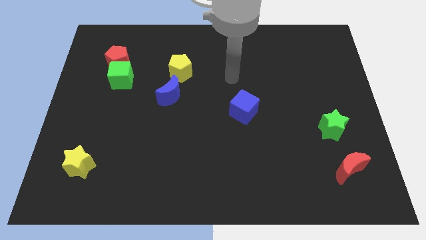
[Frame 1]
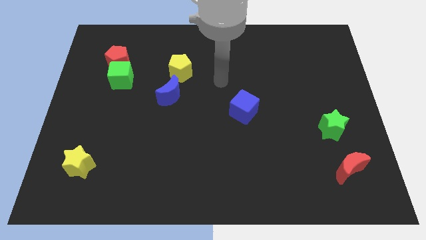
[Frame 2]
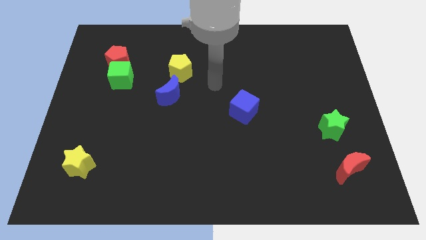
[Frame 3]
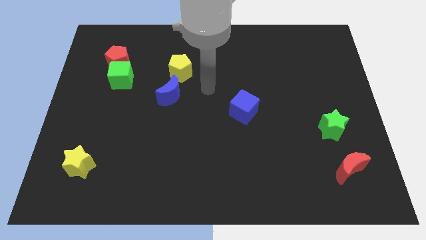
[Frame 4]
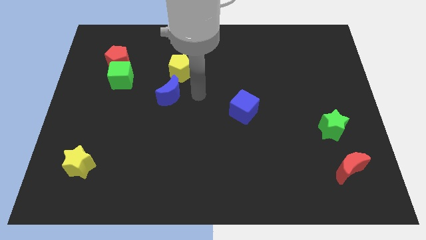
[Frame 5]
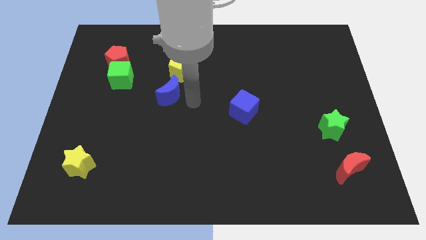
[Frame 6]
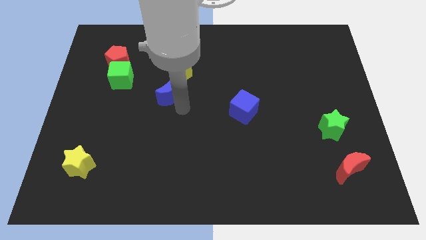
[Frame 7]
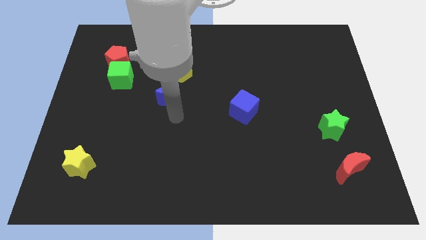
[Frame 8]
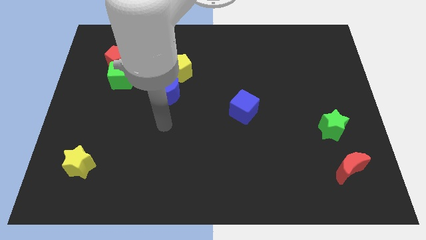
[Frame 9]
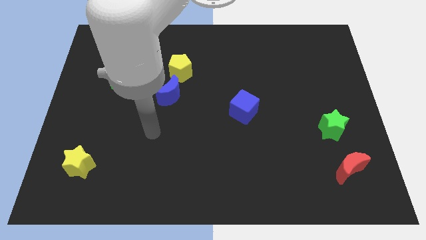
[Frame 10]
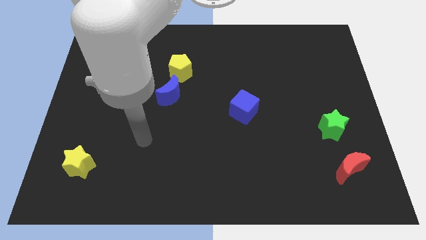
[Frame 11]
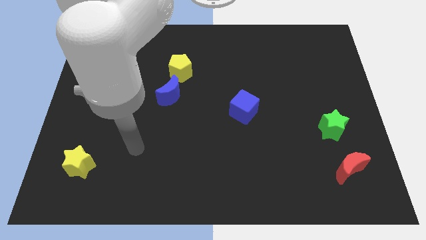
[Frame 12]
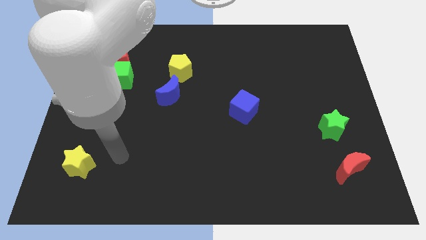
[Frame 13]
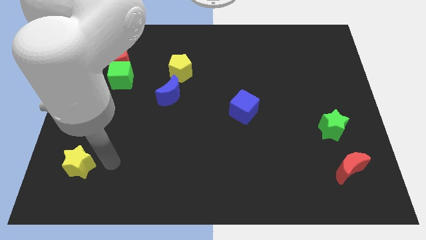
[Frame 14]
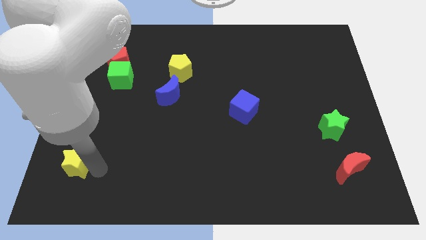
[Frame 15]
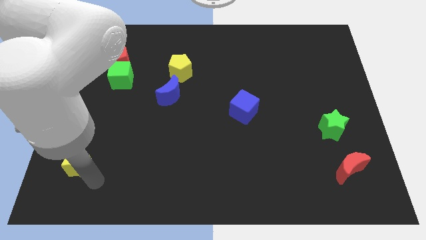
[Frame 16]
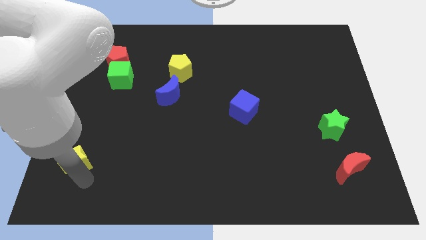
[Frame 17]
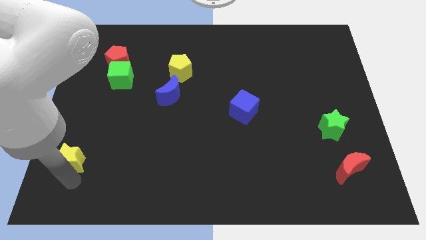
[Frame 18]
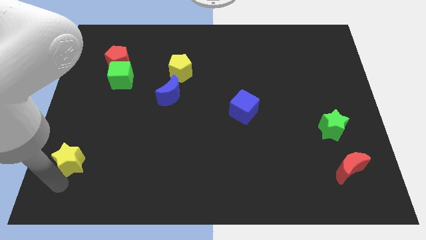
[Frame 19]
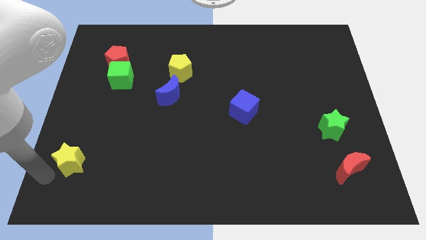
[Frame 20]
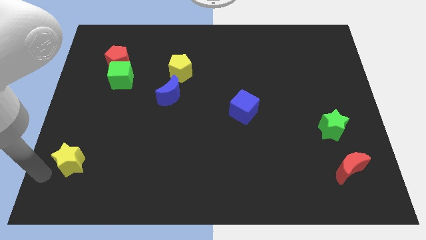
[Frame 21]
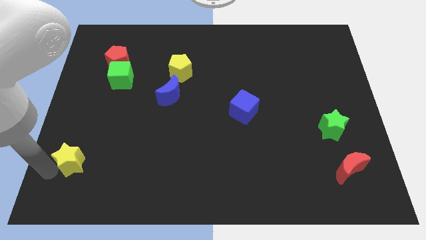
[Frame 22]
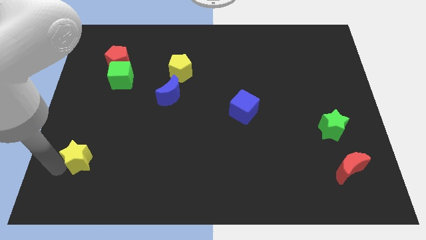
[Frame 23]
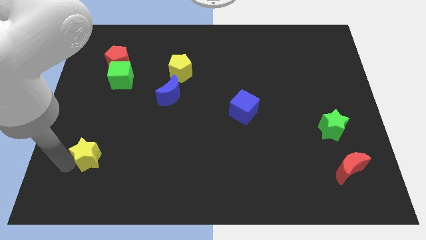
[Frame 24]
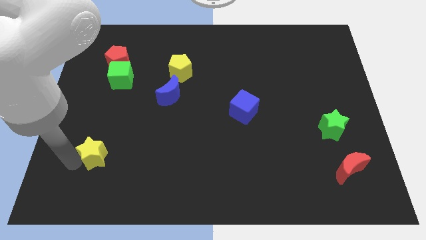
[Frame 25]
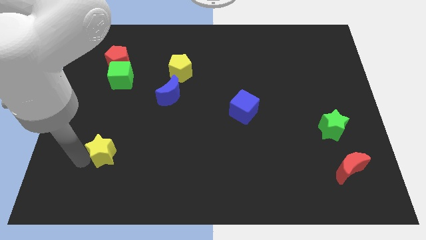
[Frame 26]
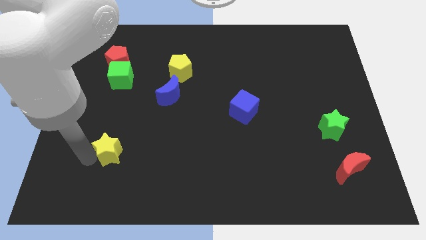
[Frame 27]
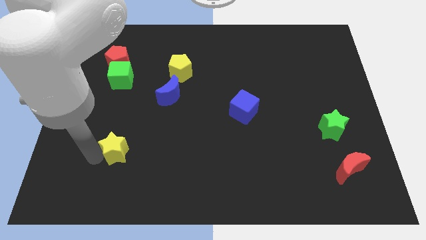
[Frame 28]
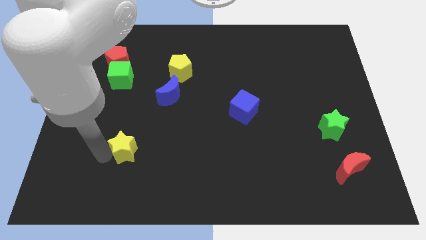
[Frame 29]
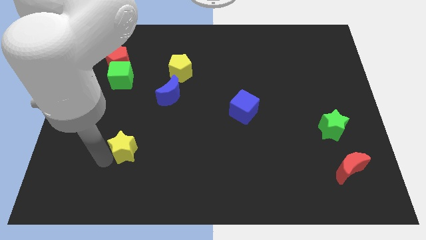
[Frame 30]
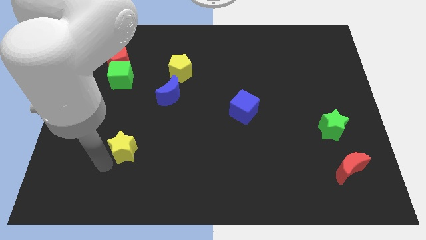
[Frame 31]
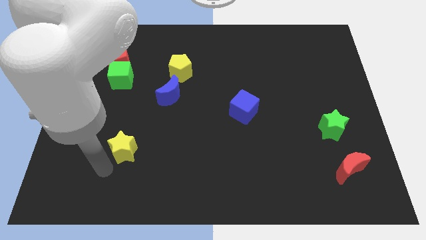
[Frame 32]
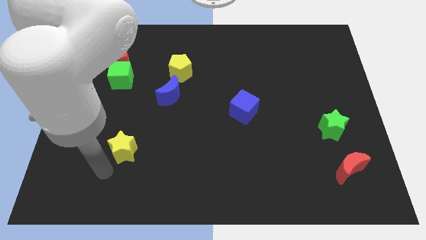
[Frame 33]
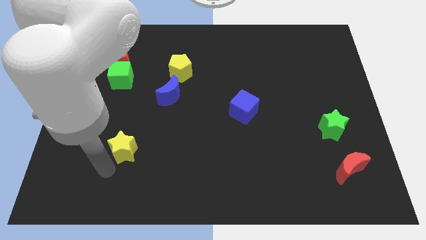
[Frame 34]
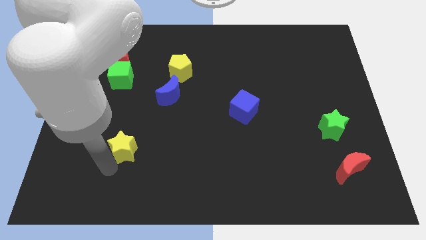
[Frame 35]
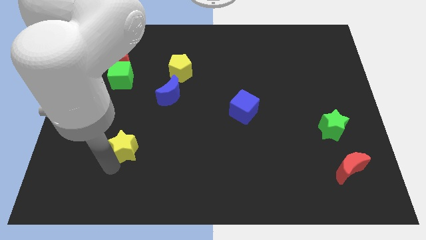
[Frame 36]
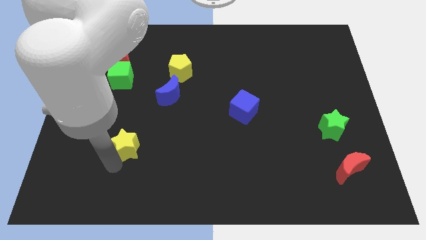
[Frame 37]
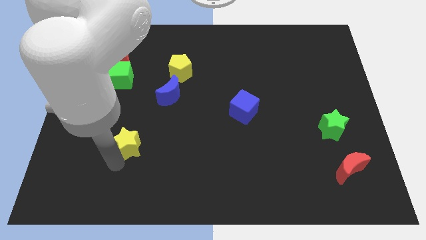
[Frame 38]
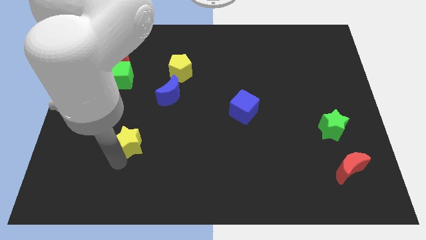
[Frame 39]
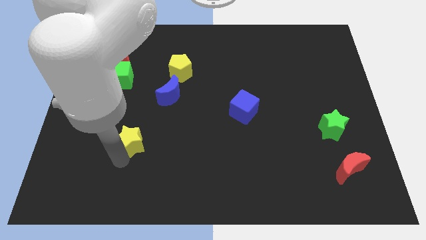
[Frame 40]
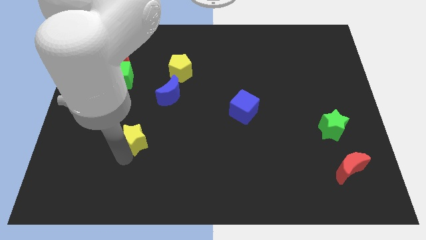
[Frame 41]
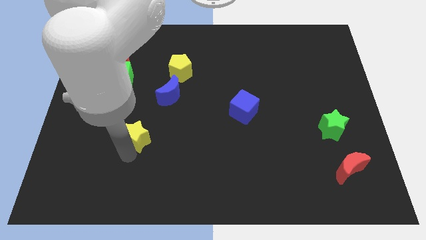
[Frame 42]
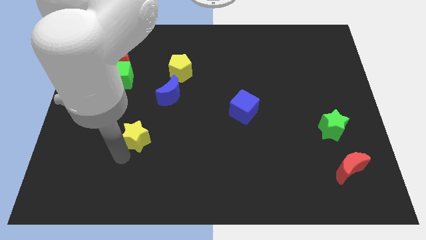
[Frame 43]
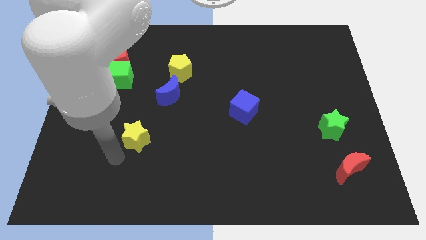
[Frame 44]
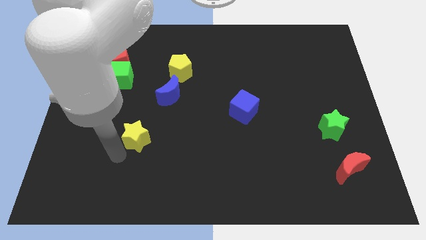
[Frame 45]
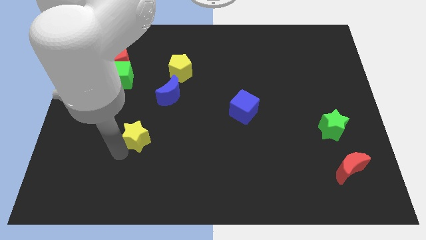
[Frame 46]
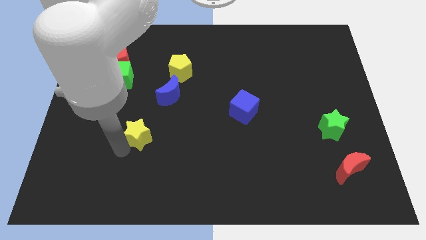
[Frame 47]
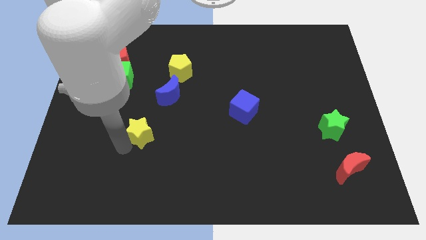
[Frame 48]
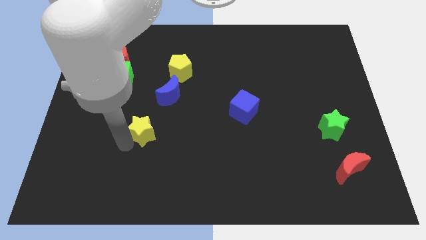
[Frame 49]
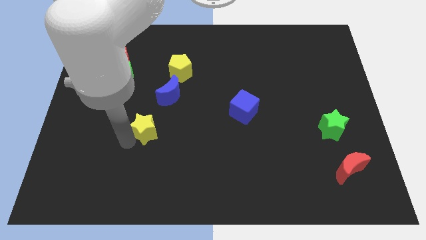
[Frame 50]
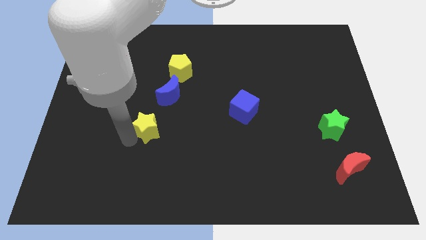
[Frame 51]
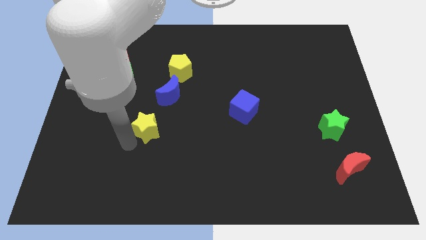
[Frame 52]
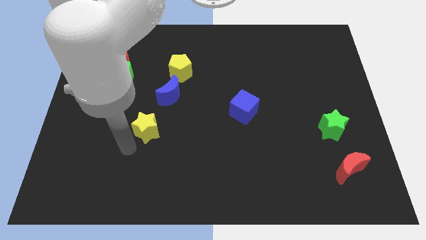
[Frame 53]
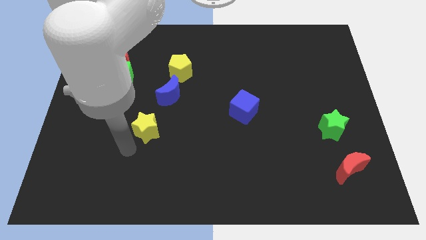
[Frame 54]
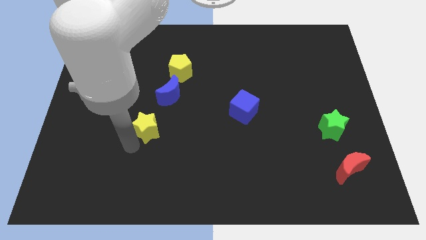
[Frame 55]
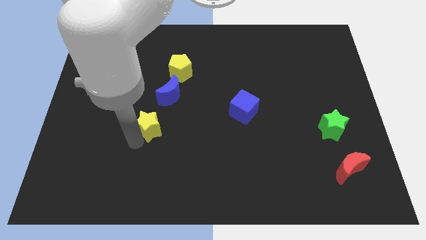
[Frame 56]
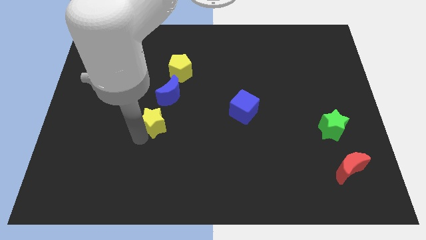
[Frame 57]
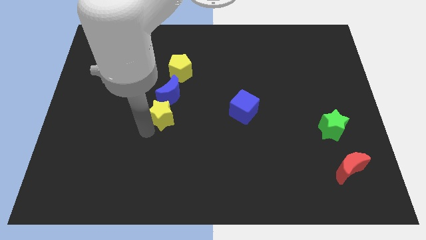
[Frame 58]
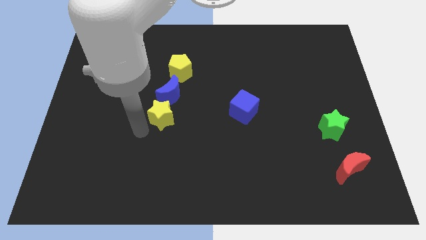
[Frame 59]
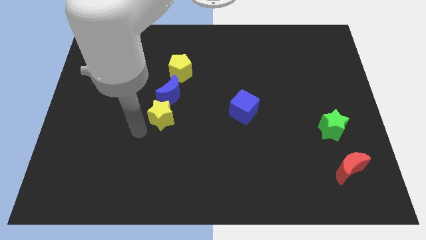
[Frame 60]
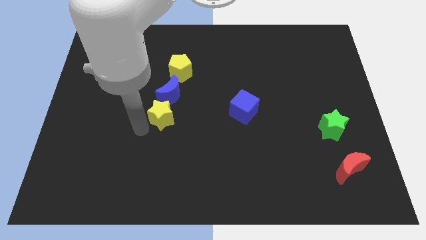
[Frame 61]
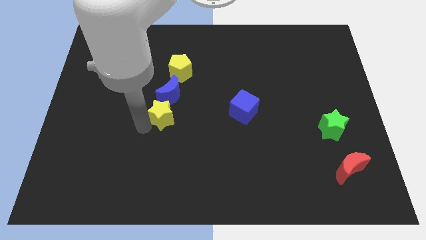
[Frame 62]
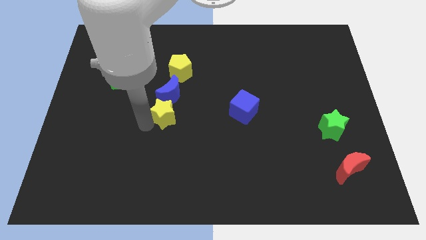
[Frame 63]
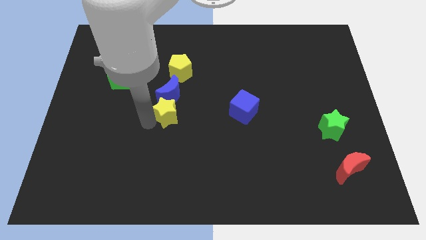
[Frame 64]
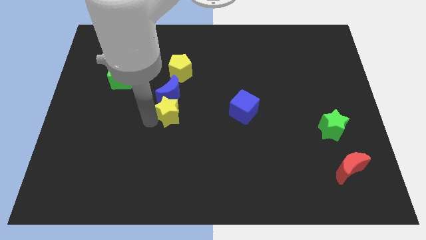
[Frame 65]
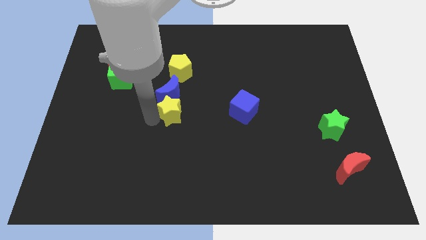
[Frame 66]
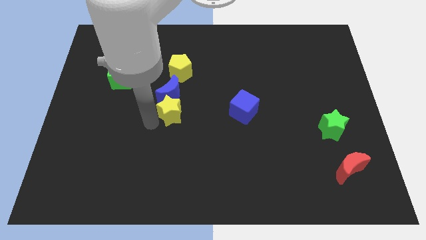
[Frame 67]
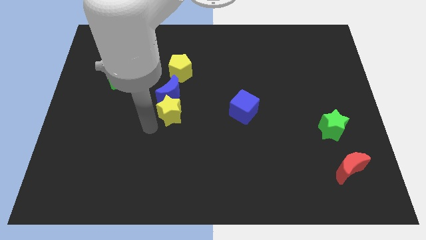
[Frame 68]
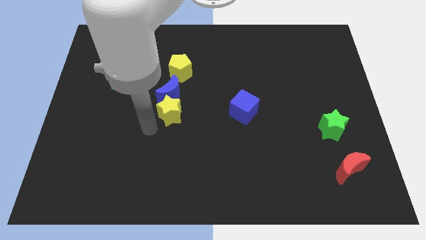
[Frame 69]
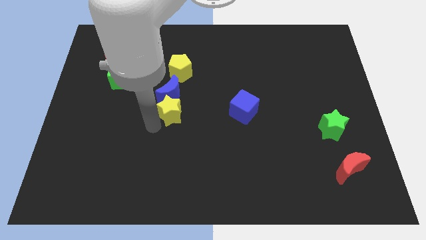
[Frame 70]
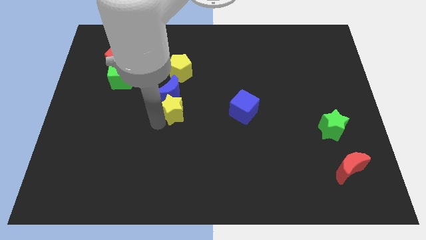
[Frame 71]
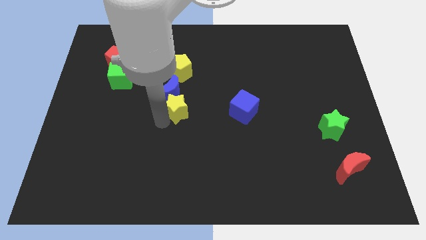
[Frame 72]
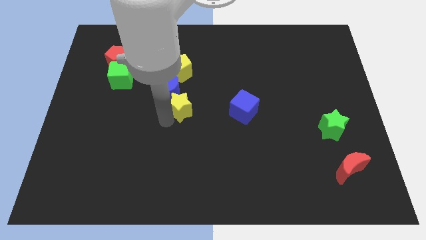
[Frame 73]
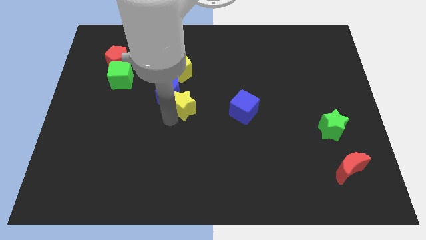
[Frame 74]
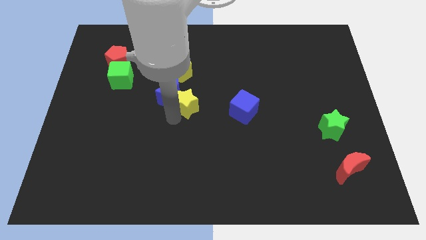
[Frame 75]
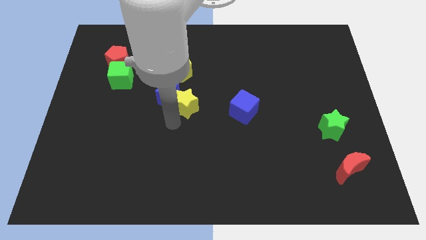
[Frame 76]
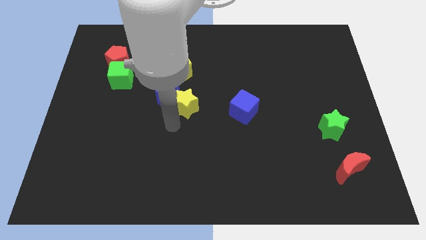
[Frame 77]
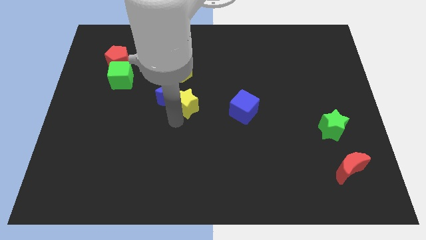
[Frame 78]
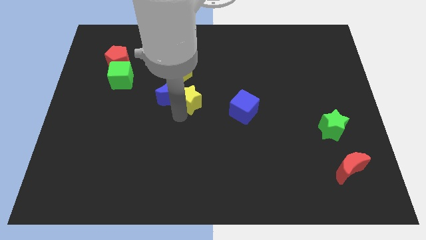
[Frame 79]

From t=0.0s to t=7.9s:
slide the yellow star diagonally down and to the right of the yellow pentagon

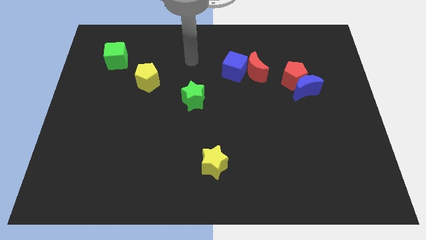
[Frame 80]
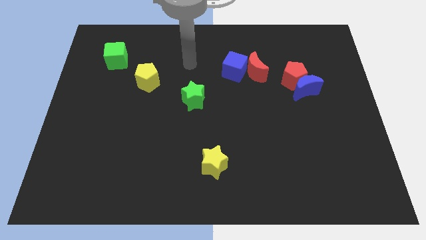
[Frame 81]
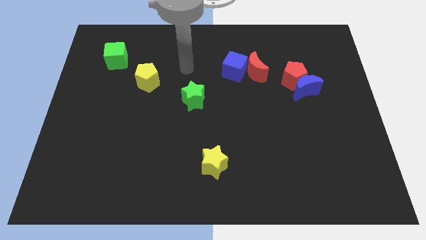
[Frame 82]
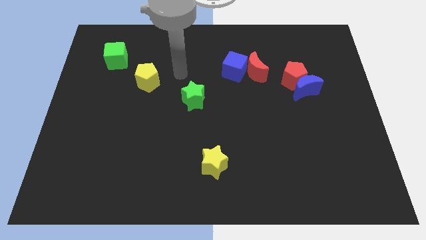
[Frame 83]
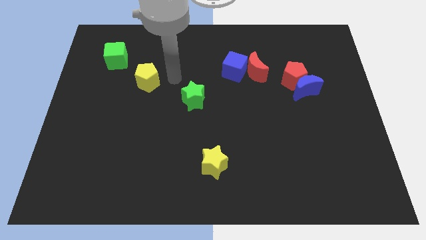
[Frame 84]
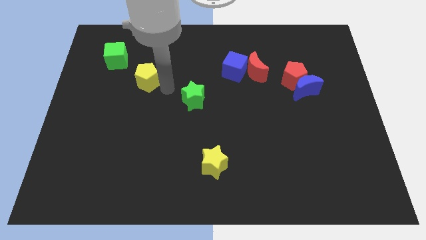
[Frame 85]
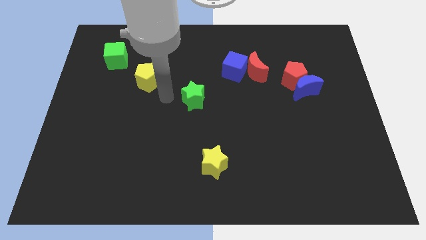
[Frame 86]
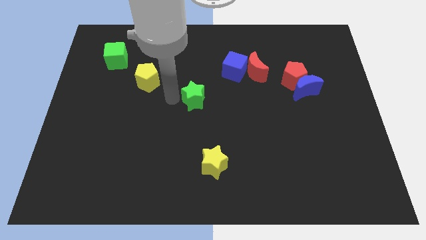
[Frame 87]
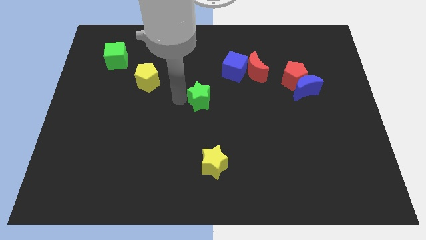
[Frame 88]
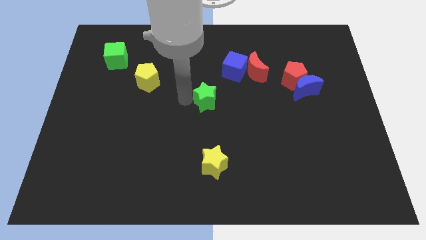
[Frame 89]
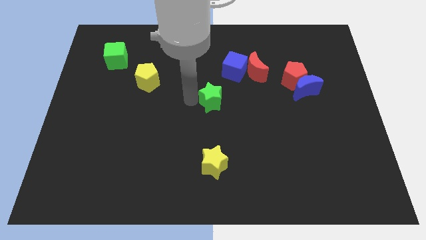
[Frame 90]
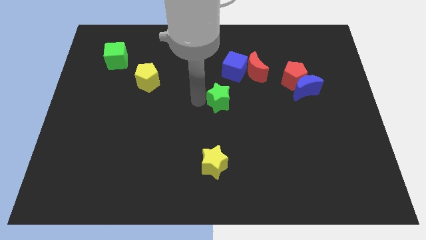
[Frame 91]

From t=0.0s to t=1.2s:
slide the green star to the bottom side of the blue cube
